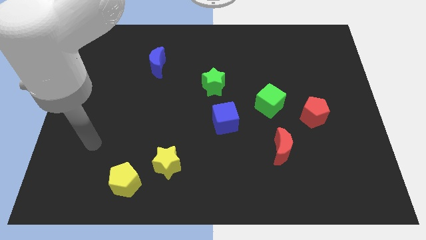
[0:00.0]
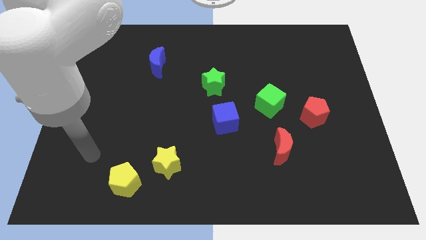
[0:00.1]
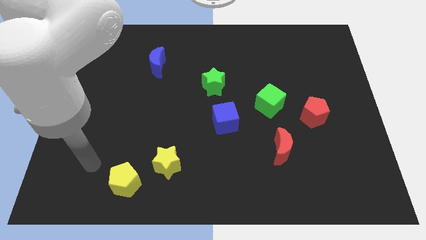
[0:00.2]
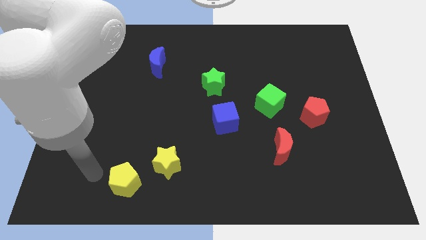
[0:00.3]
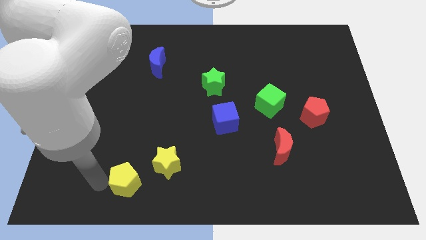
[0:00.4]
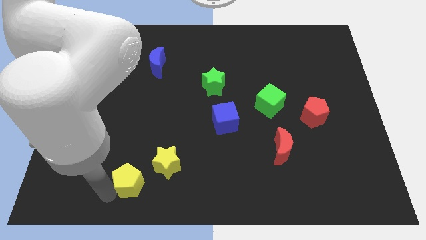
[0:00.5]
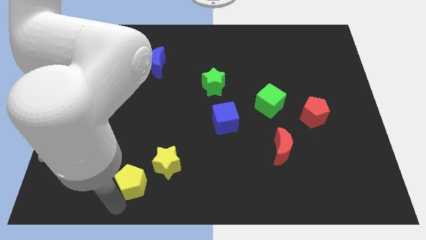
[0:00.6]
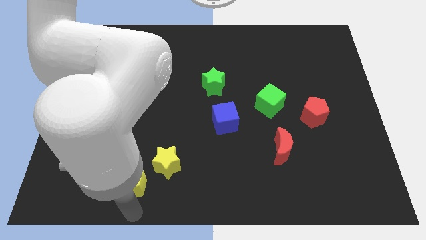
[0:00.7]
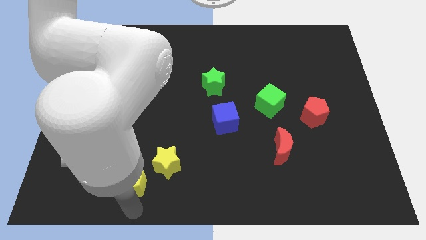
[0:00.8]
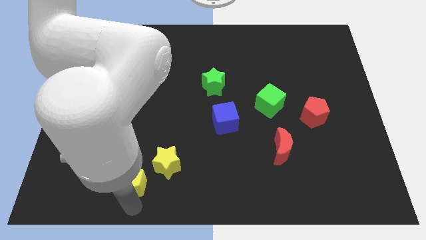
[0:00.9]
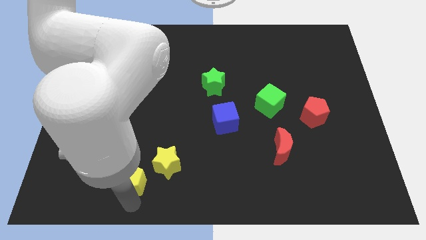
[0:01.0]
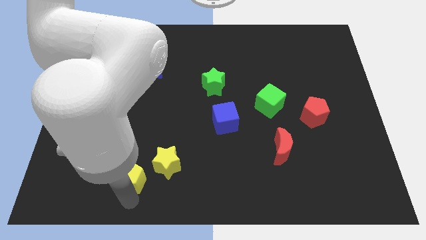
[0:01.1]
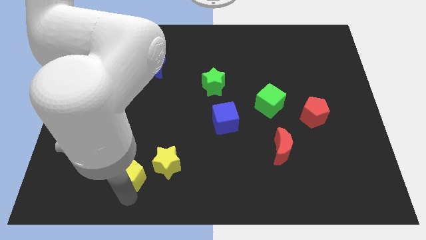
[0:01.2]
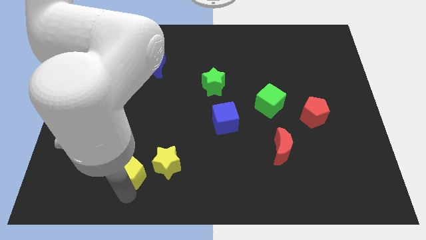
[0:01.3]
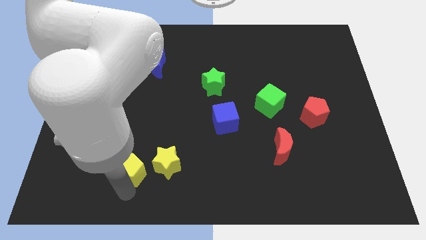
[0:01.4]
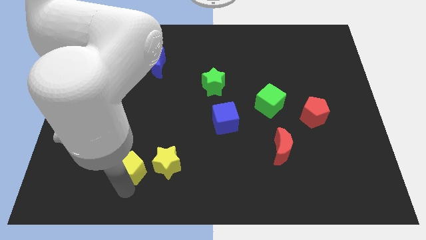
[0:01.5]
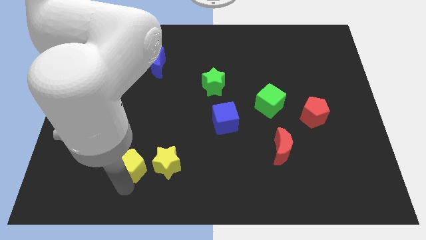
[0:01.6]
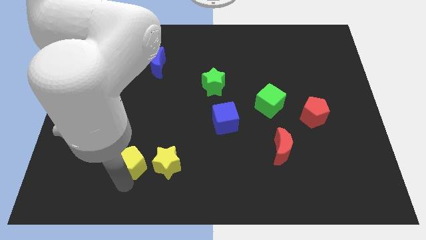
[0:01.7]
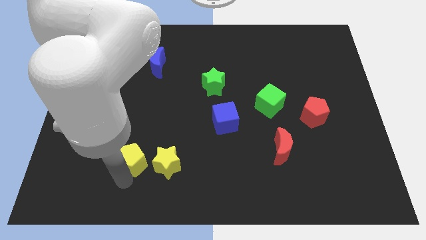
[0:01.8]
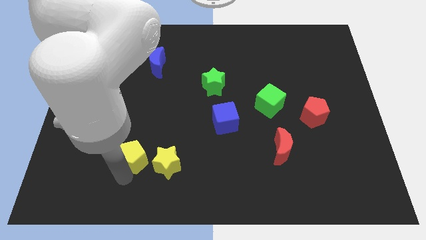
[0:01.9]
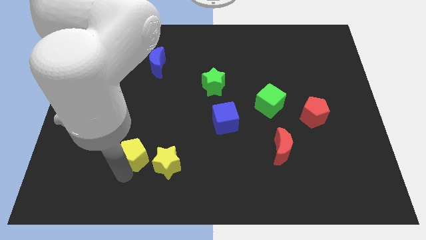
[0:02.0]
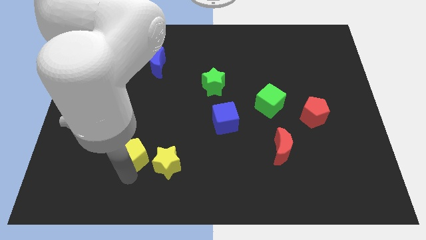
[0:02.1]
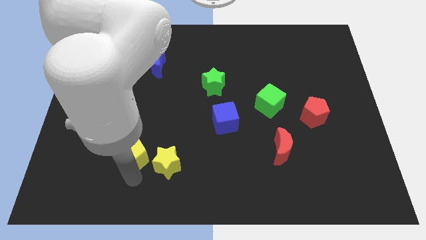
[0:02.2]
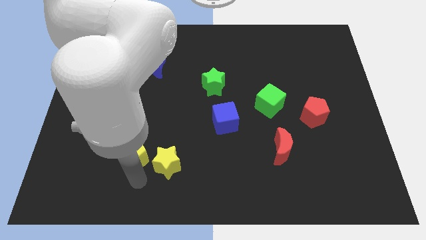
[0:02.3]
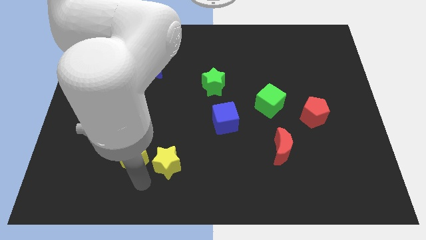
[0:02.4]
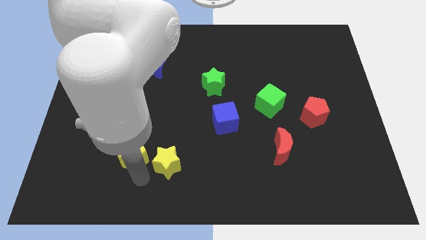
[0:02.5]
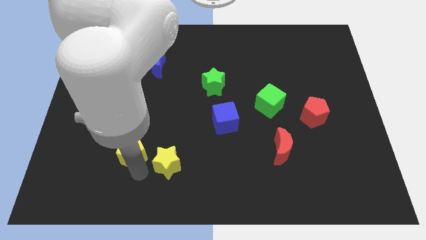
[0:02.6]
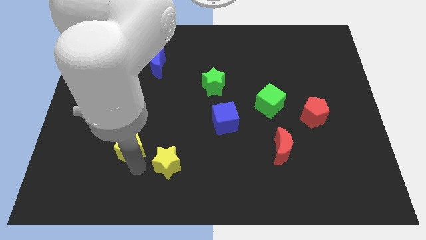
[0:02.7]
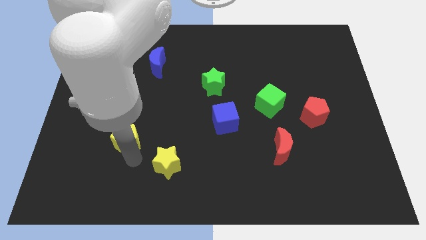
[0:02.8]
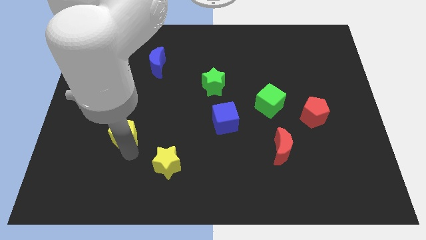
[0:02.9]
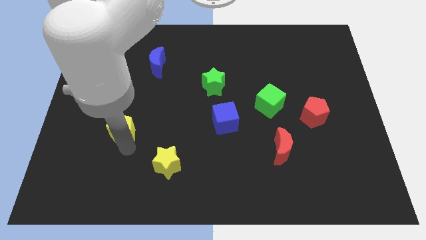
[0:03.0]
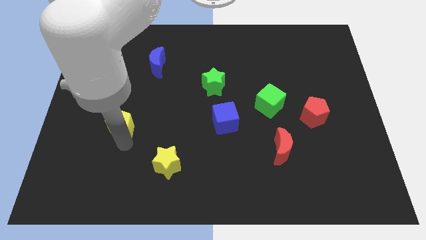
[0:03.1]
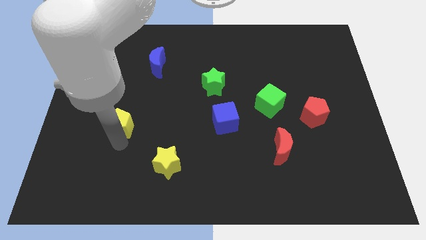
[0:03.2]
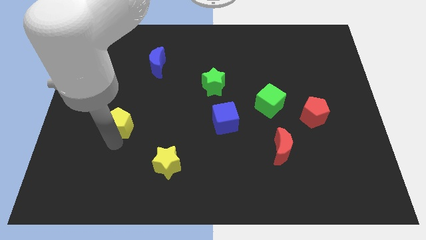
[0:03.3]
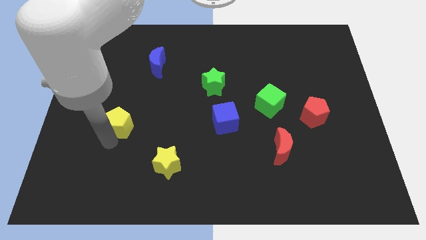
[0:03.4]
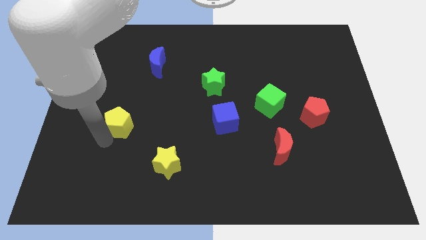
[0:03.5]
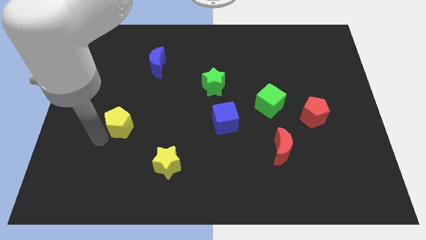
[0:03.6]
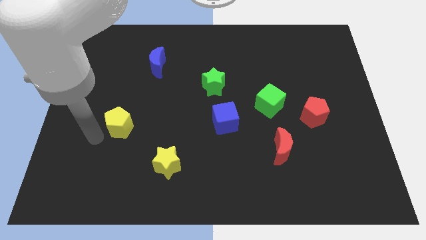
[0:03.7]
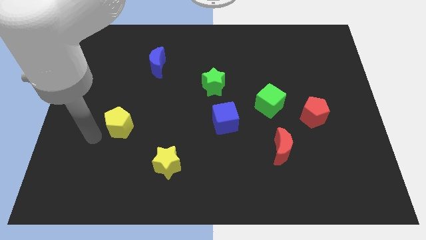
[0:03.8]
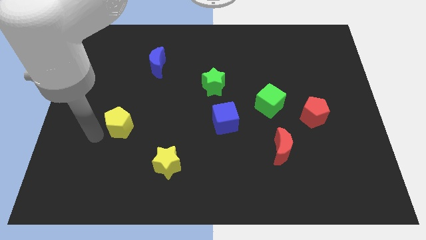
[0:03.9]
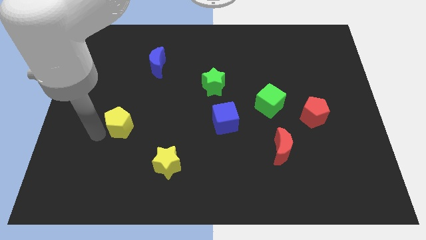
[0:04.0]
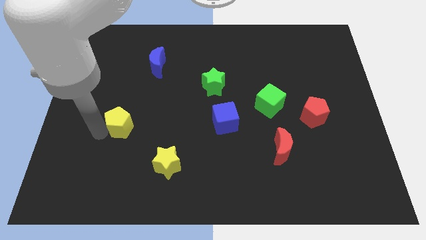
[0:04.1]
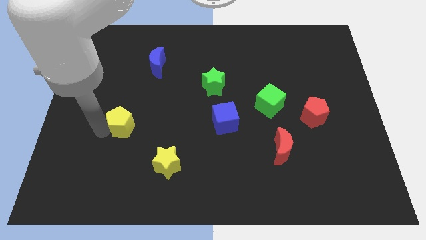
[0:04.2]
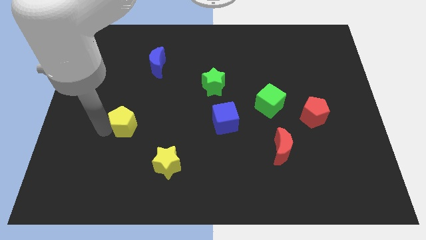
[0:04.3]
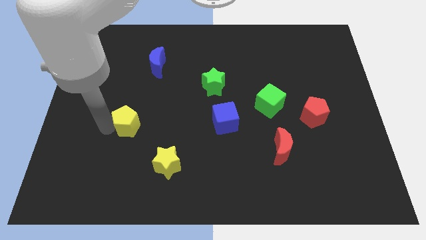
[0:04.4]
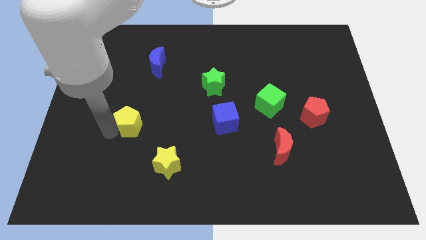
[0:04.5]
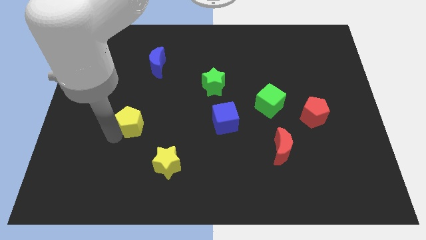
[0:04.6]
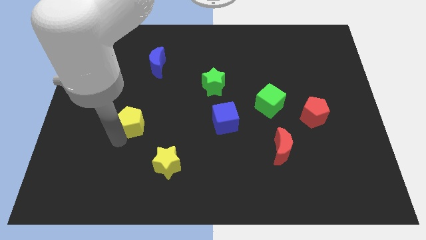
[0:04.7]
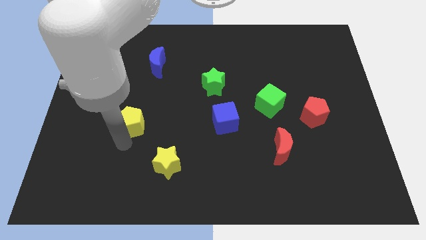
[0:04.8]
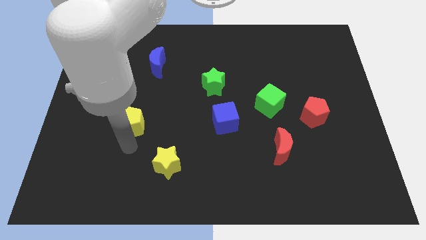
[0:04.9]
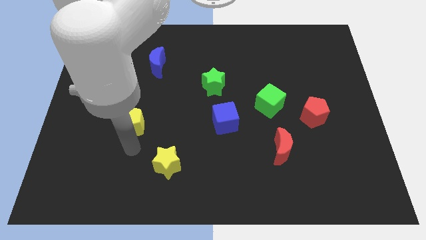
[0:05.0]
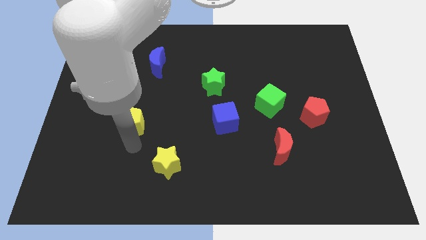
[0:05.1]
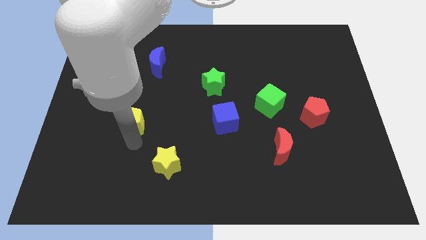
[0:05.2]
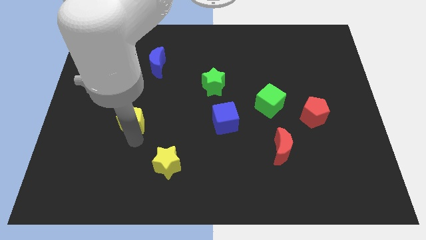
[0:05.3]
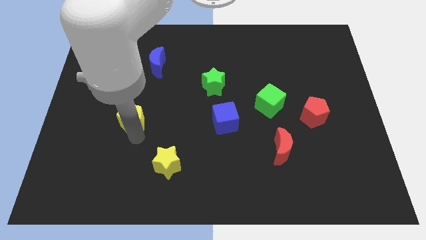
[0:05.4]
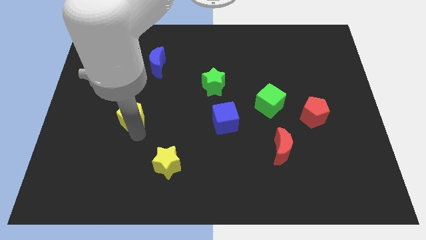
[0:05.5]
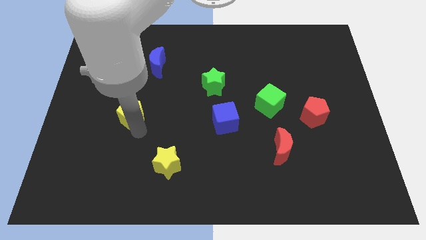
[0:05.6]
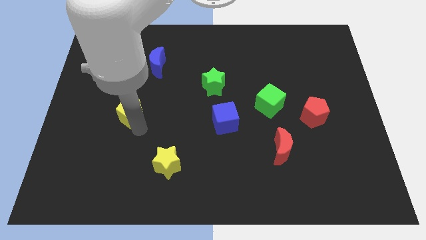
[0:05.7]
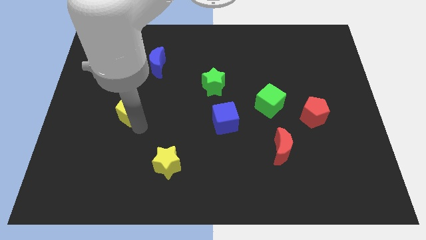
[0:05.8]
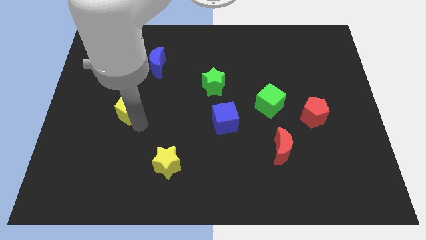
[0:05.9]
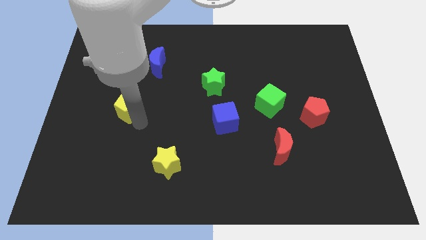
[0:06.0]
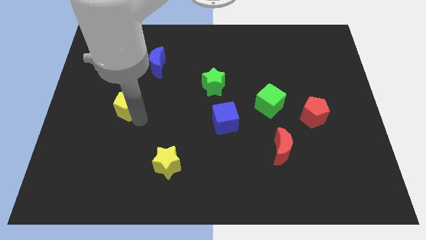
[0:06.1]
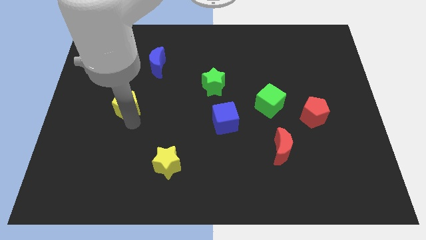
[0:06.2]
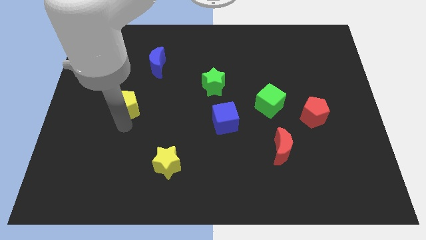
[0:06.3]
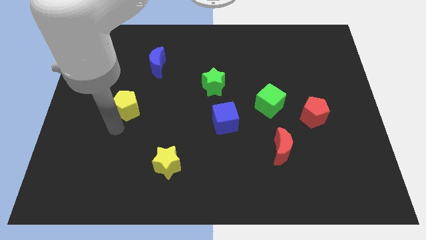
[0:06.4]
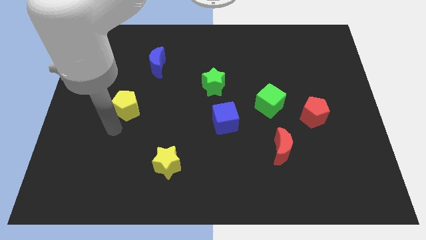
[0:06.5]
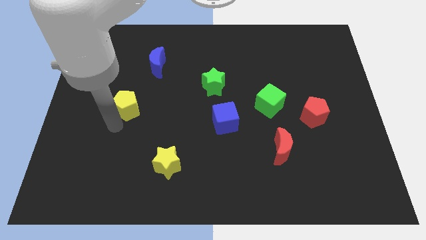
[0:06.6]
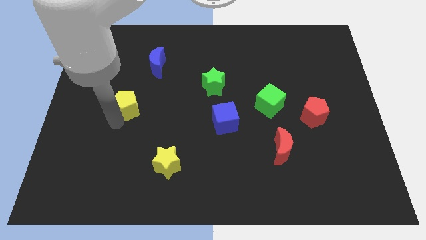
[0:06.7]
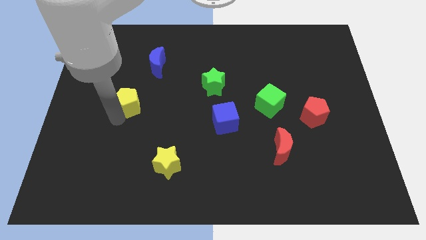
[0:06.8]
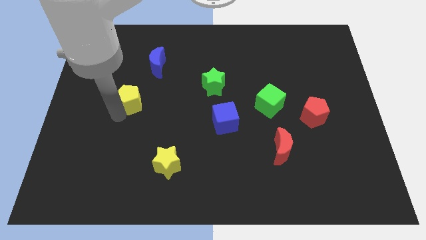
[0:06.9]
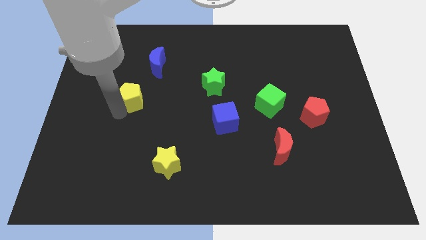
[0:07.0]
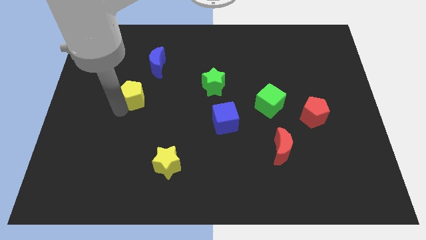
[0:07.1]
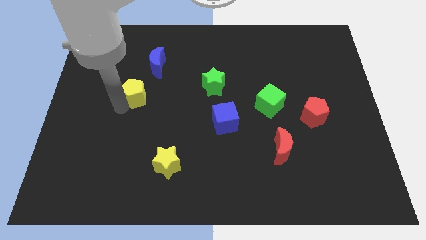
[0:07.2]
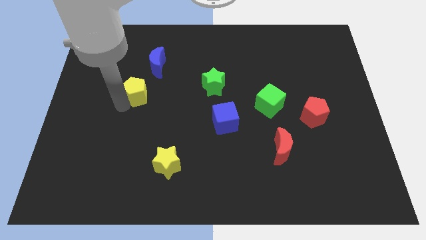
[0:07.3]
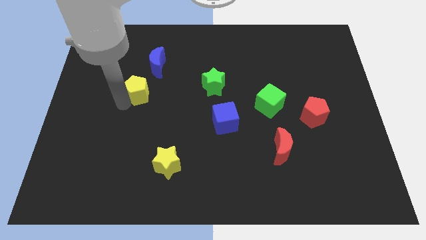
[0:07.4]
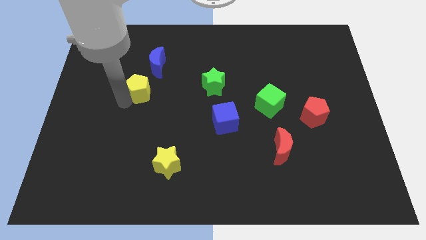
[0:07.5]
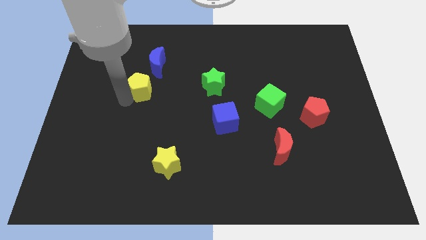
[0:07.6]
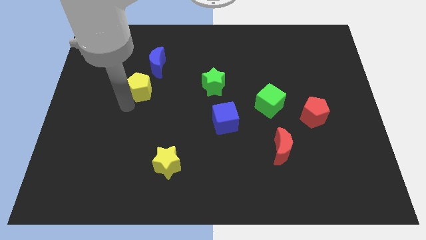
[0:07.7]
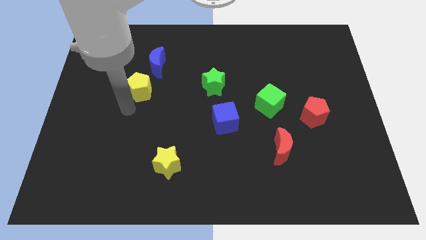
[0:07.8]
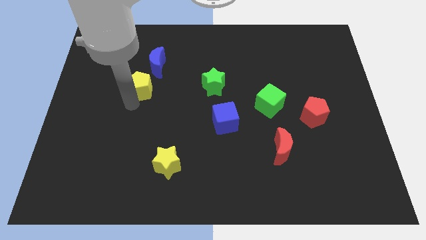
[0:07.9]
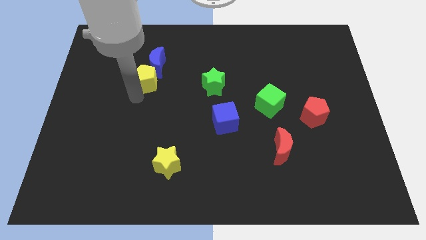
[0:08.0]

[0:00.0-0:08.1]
push the yellow pentagon close to the blue moon
